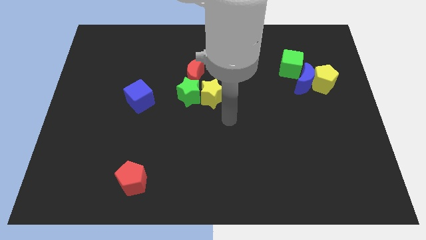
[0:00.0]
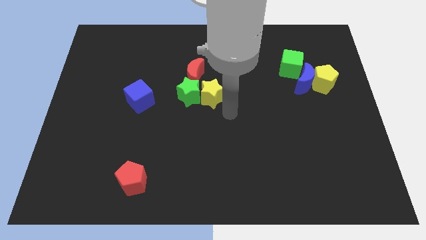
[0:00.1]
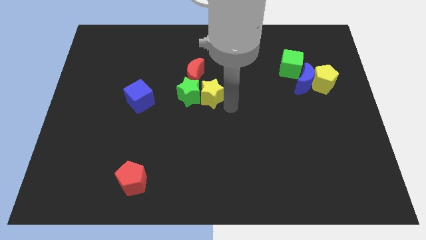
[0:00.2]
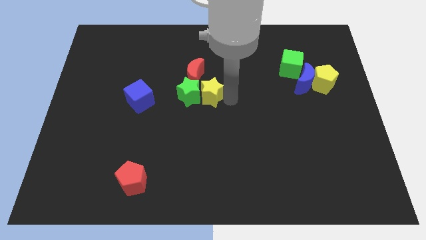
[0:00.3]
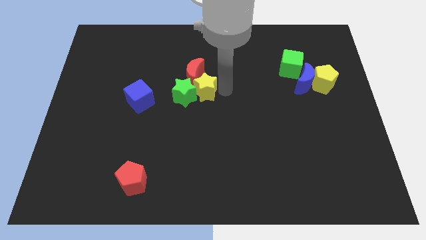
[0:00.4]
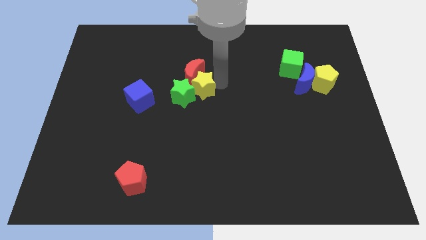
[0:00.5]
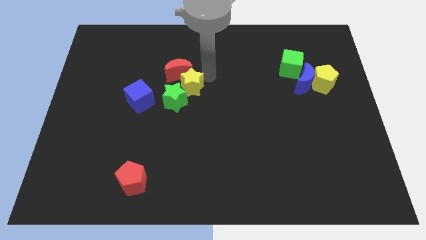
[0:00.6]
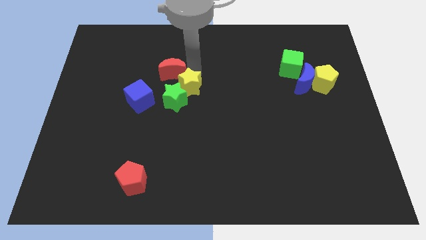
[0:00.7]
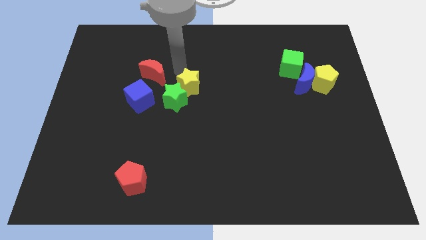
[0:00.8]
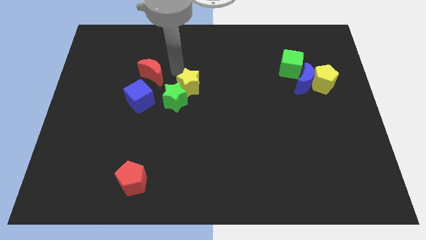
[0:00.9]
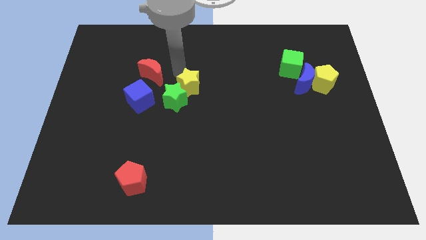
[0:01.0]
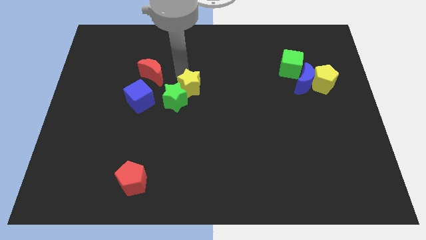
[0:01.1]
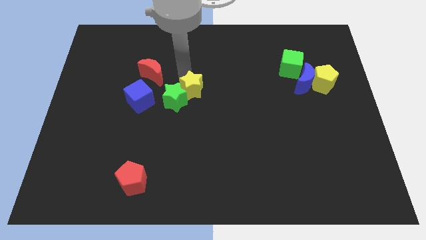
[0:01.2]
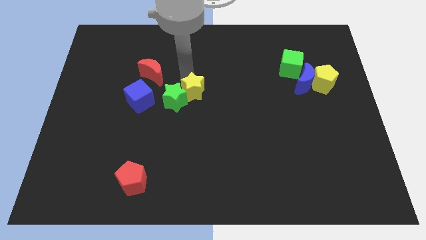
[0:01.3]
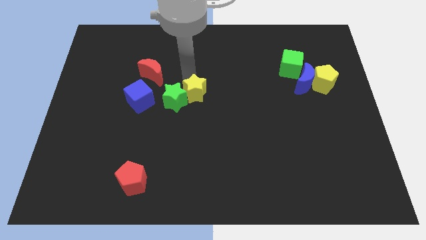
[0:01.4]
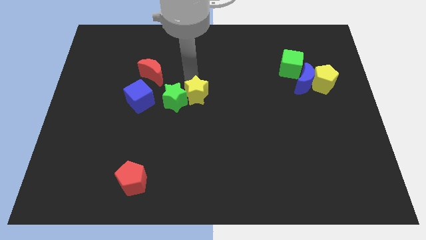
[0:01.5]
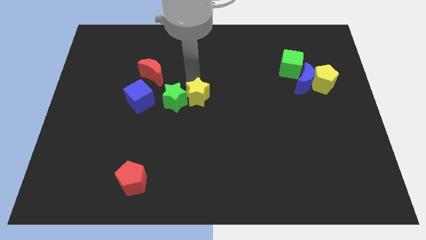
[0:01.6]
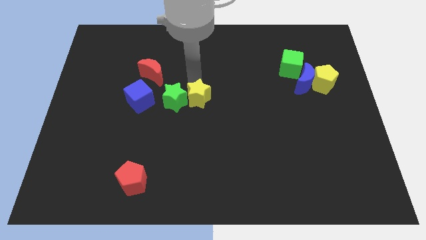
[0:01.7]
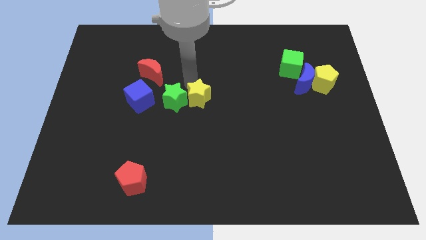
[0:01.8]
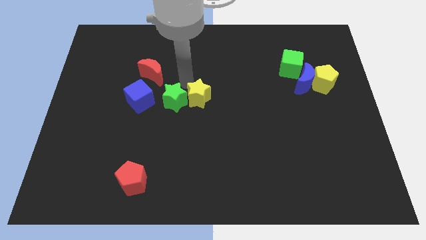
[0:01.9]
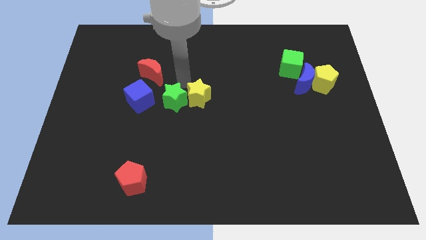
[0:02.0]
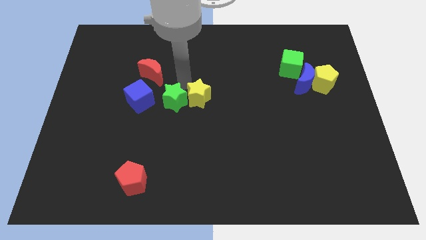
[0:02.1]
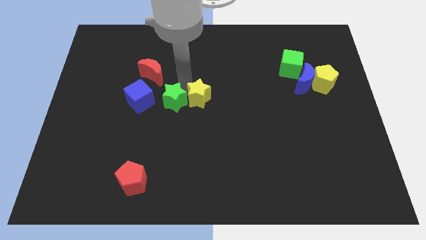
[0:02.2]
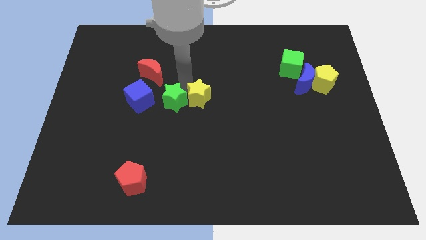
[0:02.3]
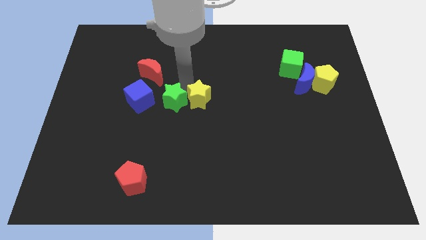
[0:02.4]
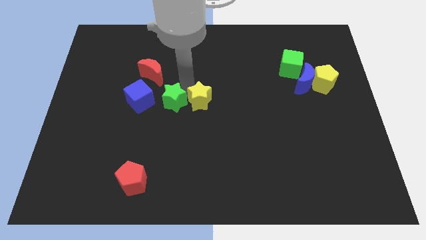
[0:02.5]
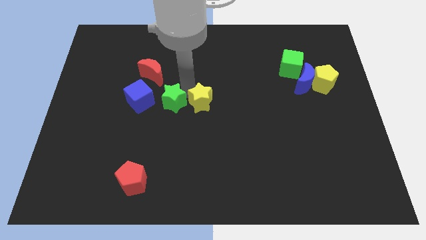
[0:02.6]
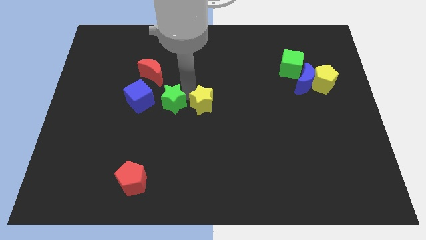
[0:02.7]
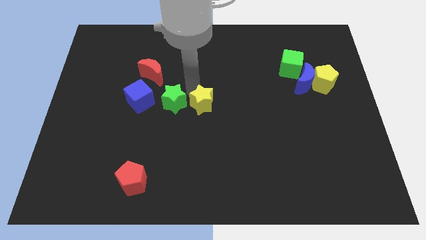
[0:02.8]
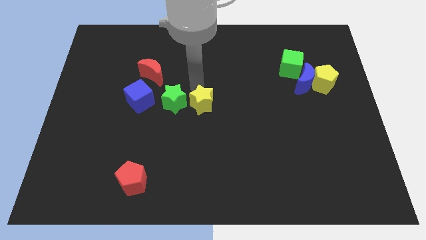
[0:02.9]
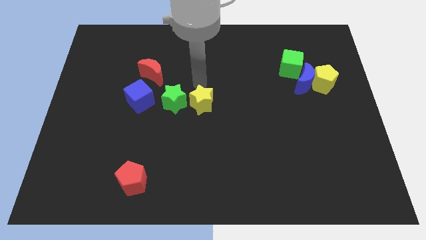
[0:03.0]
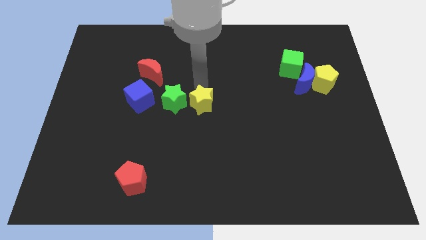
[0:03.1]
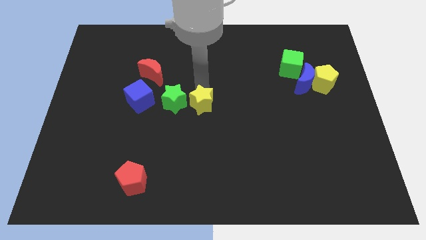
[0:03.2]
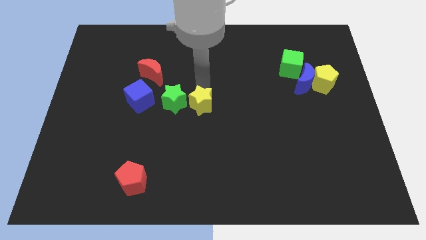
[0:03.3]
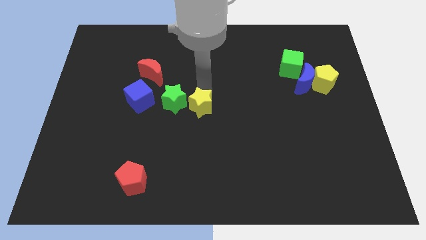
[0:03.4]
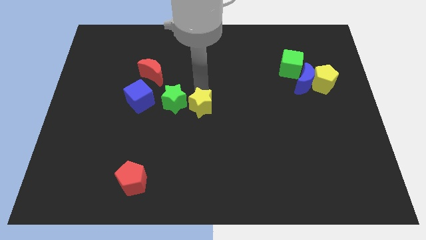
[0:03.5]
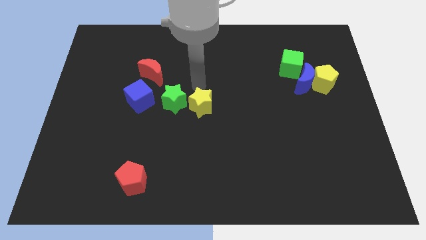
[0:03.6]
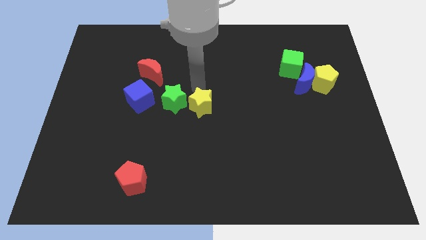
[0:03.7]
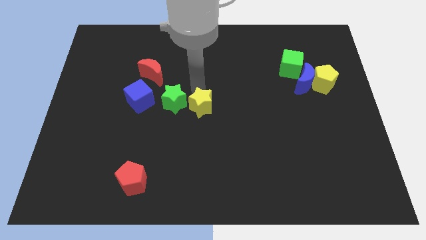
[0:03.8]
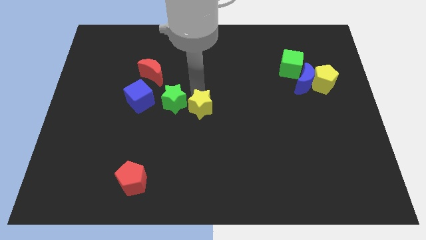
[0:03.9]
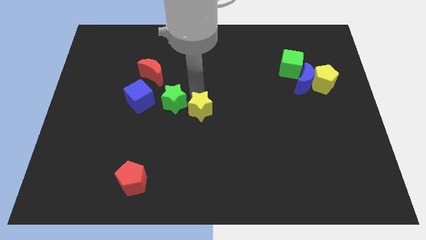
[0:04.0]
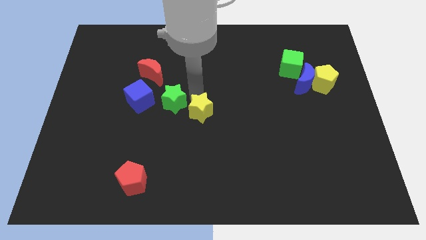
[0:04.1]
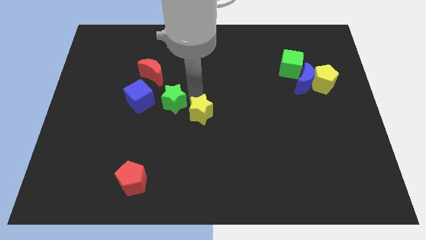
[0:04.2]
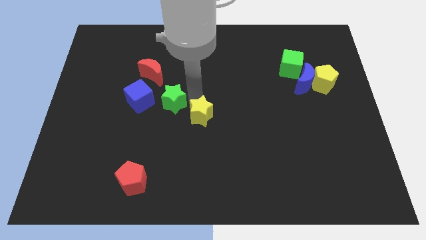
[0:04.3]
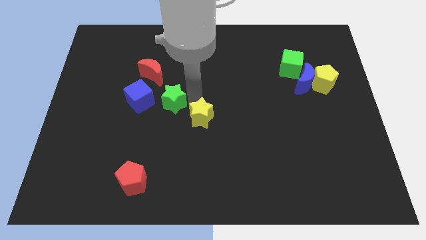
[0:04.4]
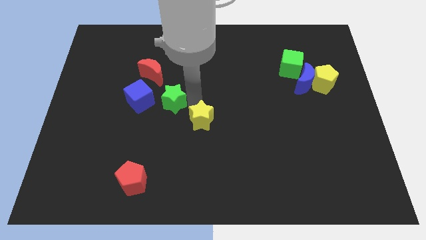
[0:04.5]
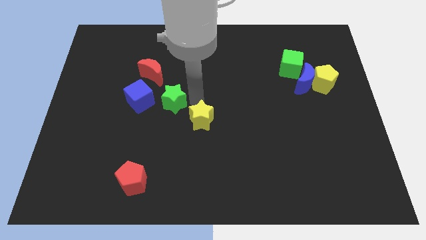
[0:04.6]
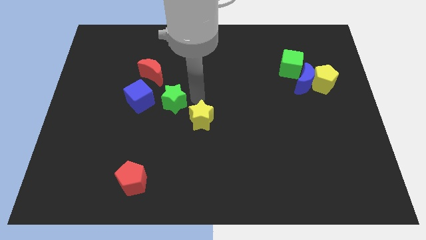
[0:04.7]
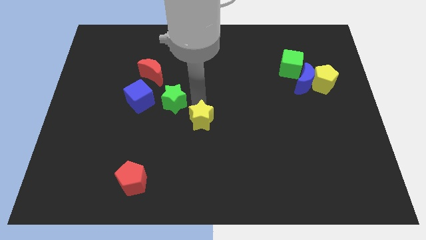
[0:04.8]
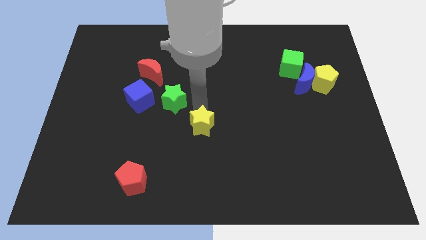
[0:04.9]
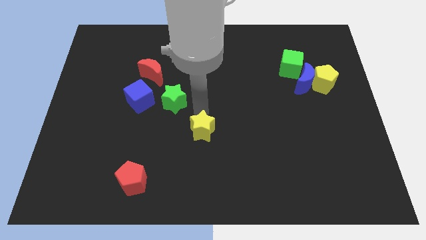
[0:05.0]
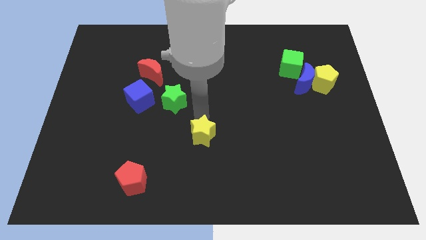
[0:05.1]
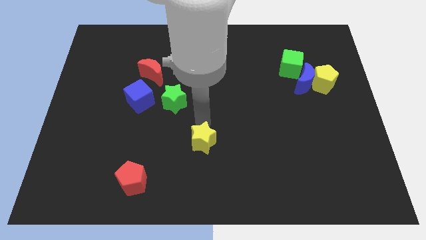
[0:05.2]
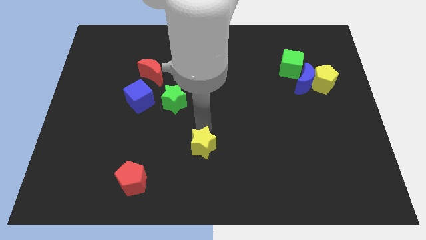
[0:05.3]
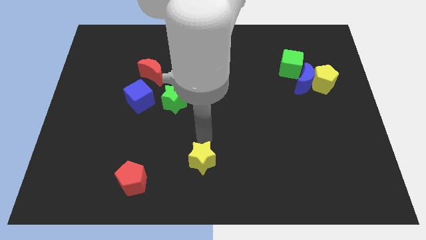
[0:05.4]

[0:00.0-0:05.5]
push the yellow star to the bottom side

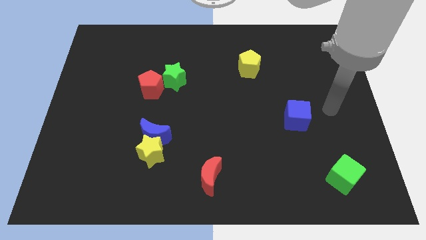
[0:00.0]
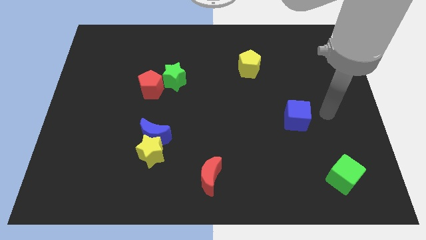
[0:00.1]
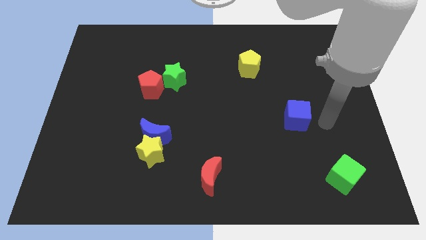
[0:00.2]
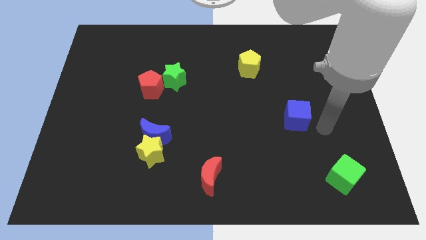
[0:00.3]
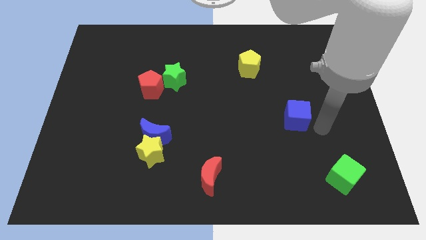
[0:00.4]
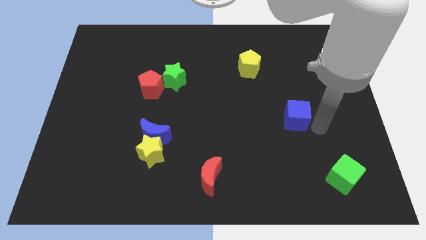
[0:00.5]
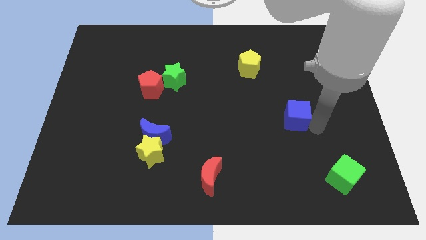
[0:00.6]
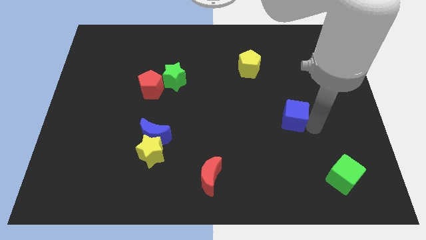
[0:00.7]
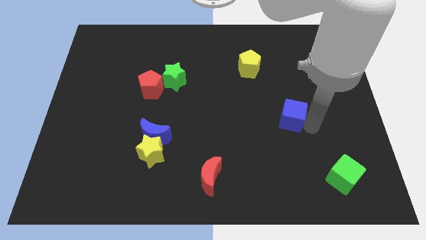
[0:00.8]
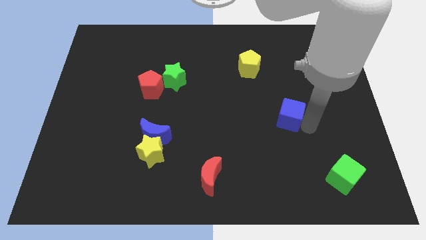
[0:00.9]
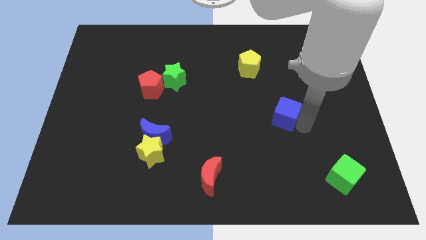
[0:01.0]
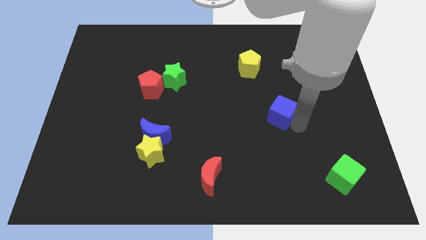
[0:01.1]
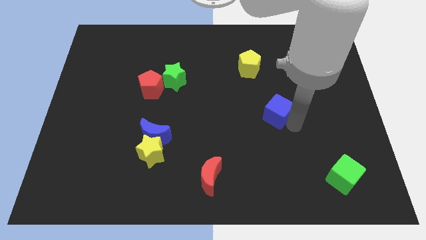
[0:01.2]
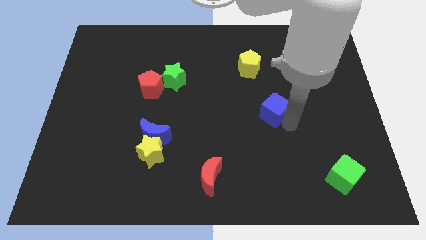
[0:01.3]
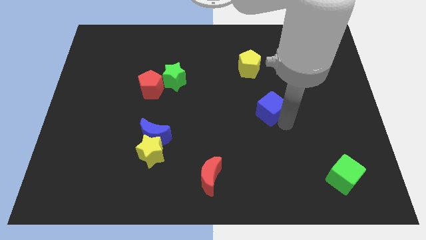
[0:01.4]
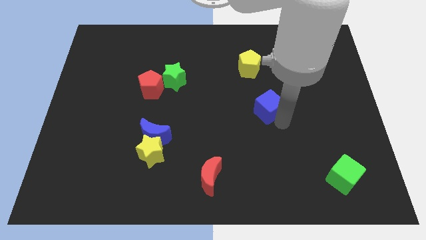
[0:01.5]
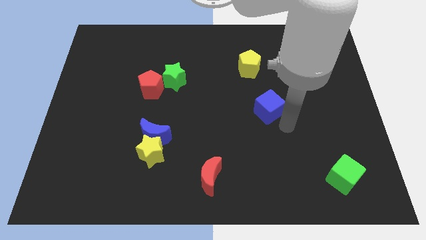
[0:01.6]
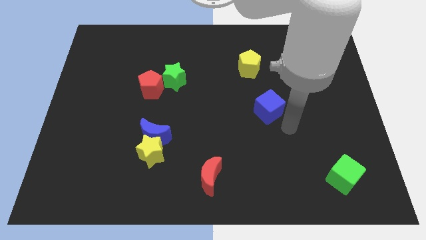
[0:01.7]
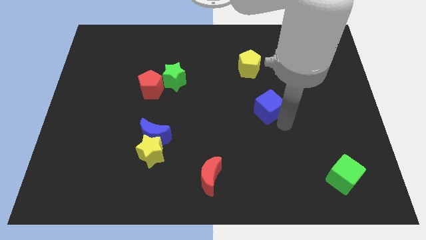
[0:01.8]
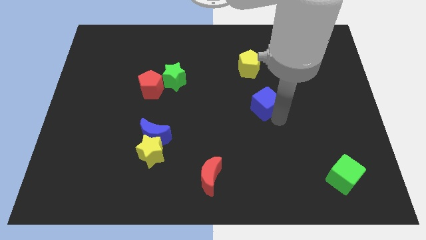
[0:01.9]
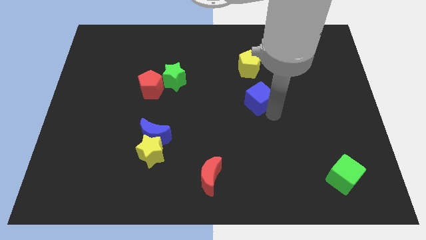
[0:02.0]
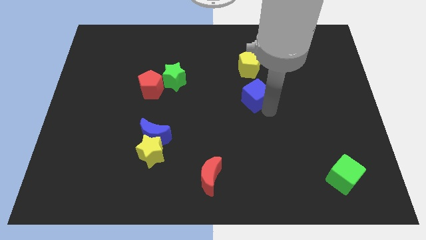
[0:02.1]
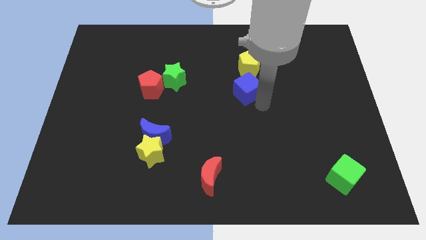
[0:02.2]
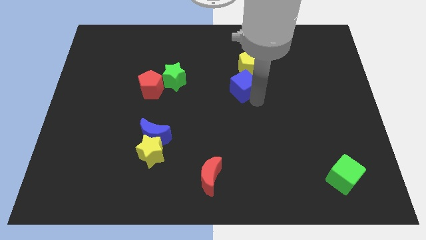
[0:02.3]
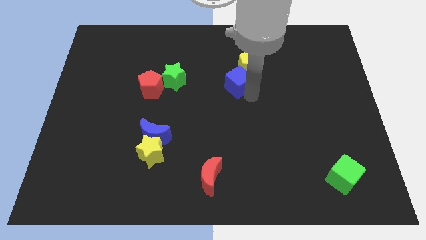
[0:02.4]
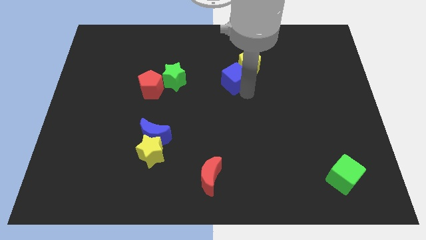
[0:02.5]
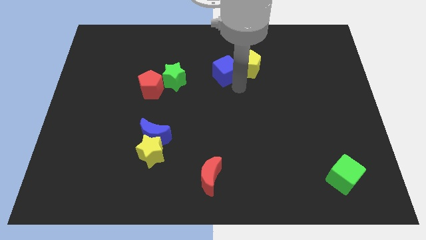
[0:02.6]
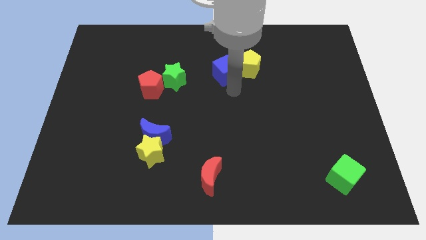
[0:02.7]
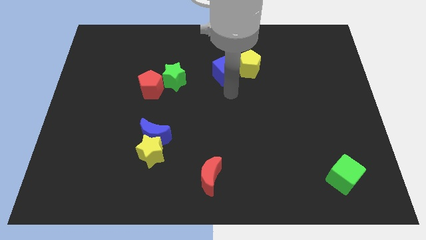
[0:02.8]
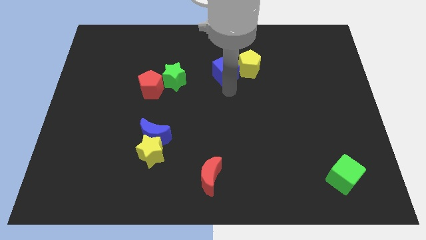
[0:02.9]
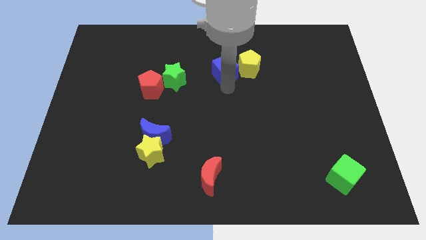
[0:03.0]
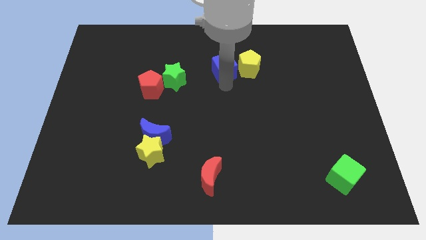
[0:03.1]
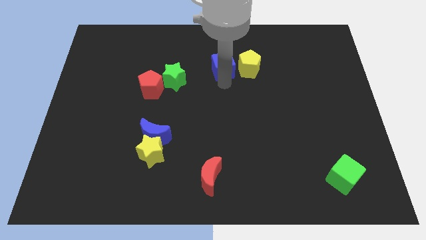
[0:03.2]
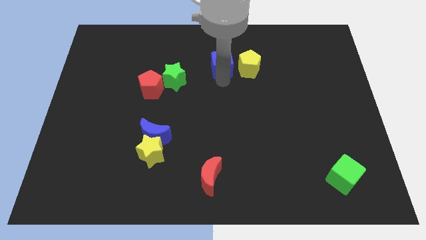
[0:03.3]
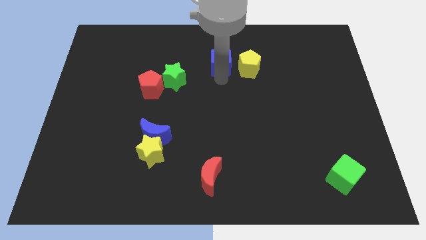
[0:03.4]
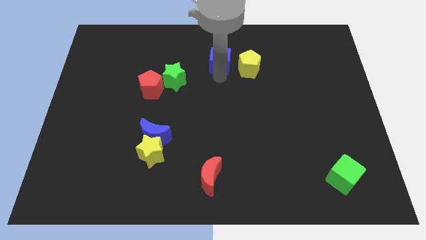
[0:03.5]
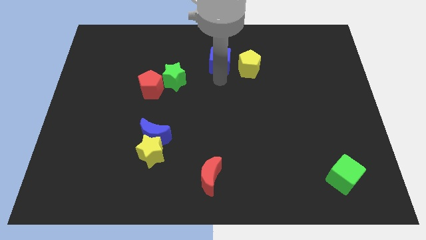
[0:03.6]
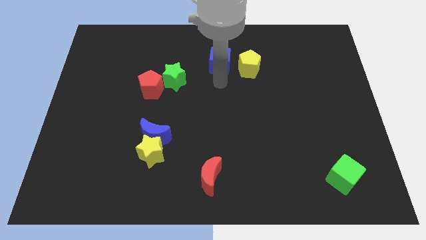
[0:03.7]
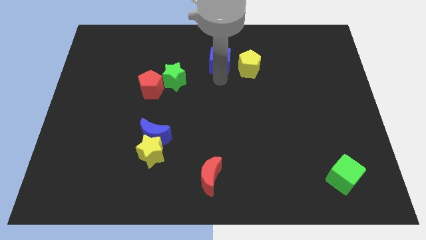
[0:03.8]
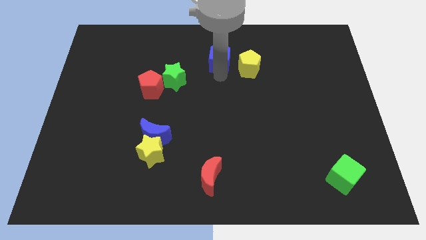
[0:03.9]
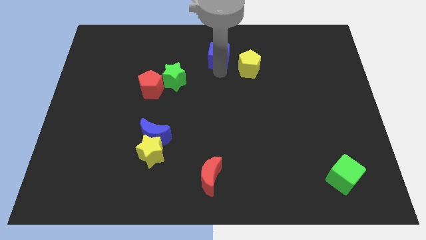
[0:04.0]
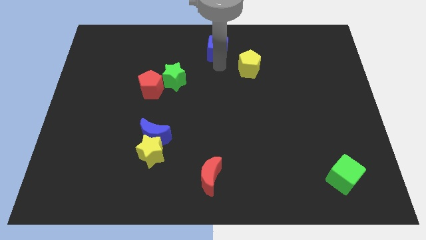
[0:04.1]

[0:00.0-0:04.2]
push the blue cube to the top
